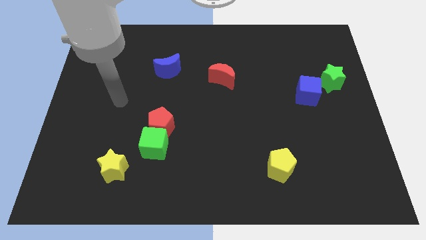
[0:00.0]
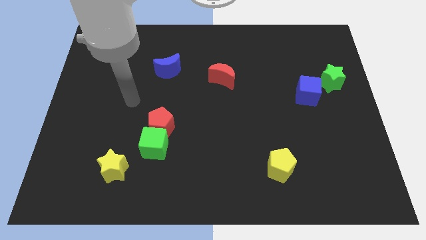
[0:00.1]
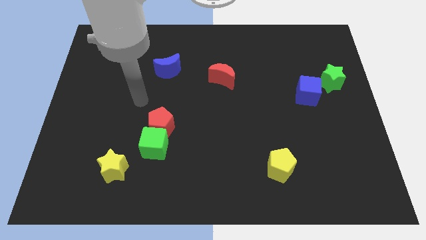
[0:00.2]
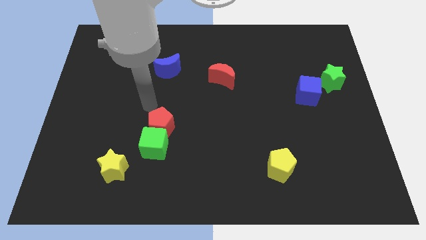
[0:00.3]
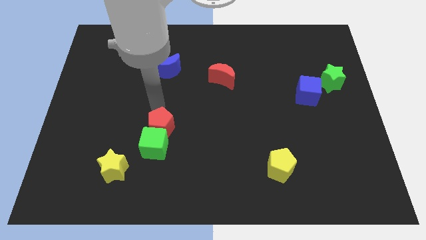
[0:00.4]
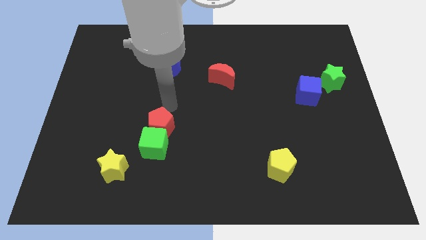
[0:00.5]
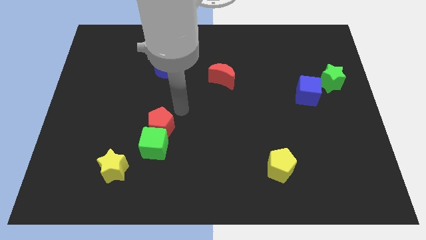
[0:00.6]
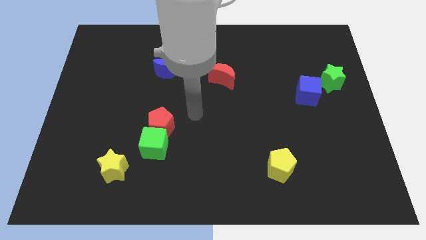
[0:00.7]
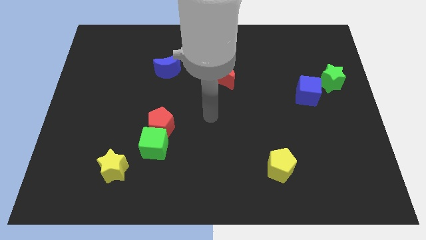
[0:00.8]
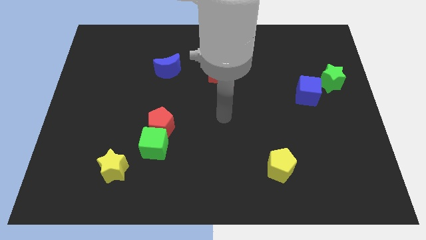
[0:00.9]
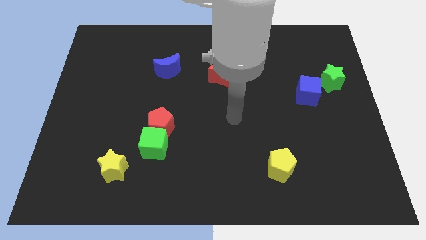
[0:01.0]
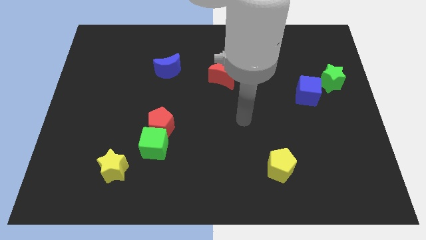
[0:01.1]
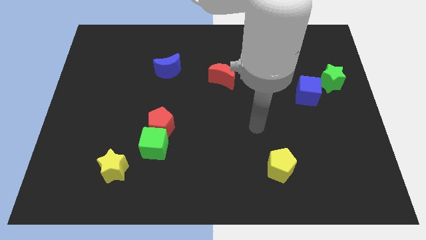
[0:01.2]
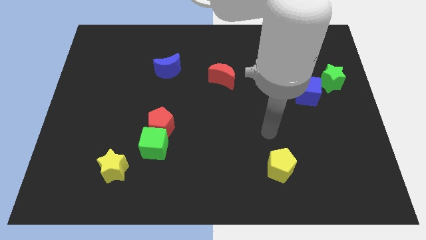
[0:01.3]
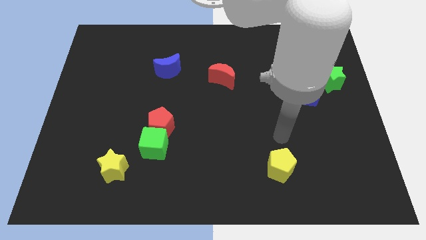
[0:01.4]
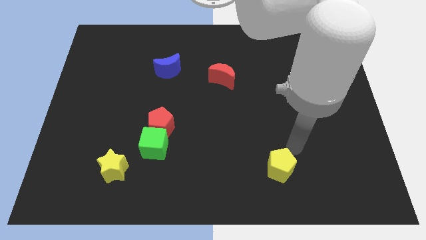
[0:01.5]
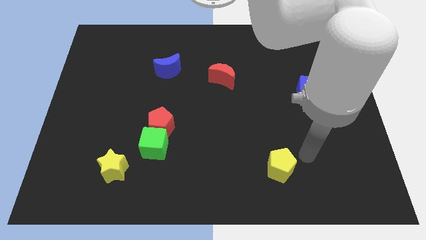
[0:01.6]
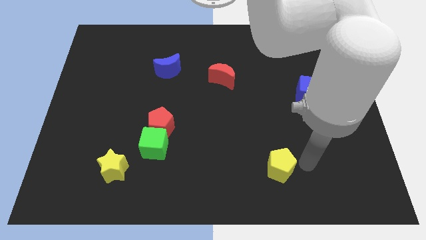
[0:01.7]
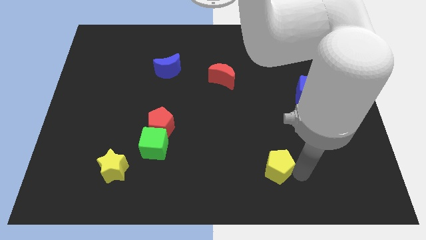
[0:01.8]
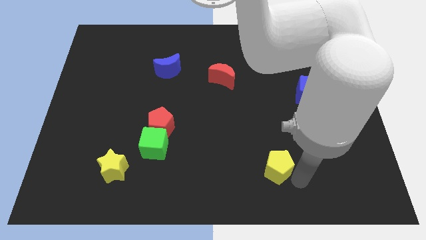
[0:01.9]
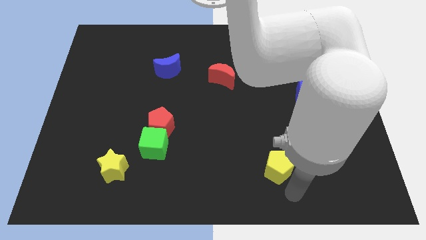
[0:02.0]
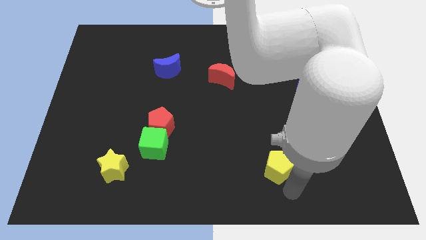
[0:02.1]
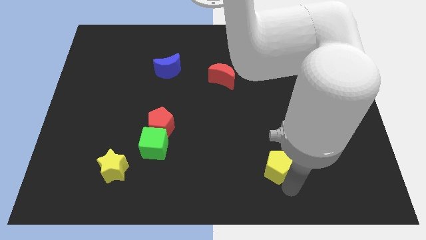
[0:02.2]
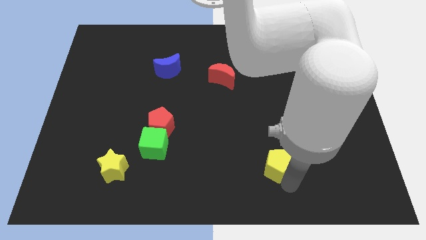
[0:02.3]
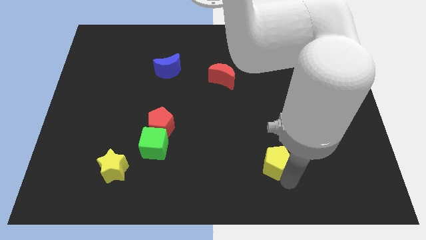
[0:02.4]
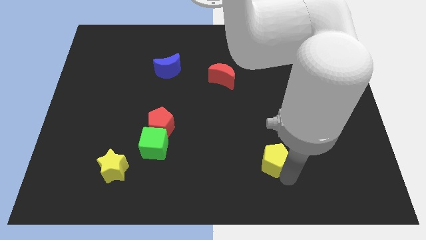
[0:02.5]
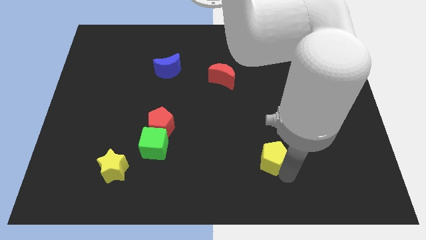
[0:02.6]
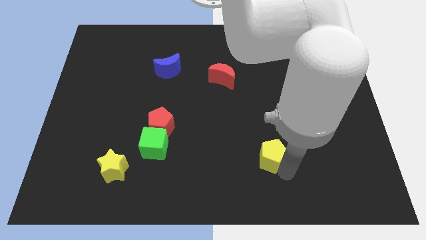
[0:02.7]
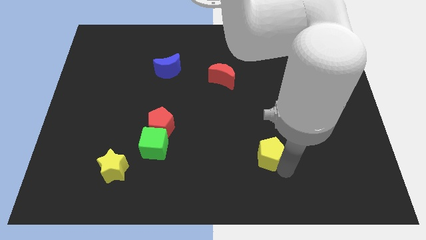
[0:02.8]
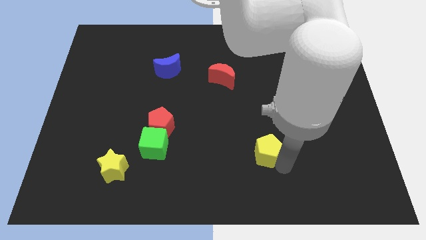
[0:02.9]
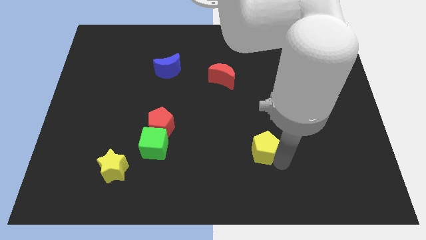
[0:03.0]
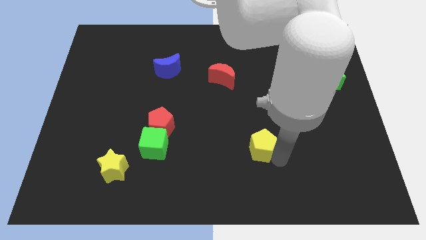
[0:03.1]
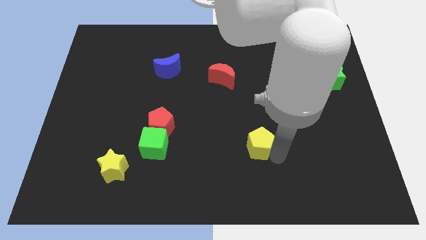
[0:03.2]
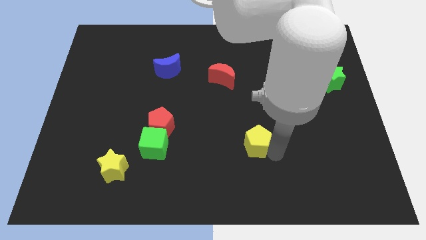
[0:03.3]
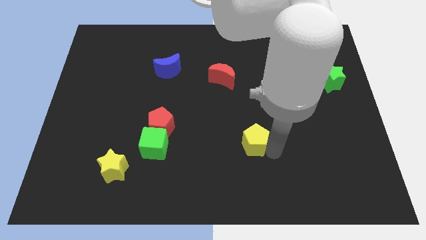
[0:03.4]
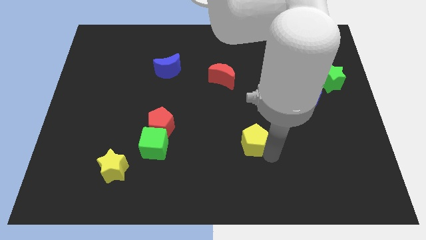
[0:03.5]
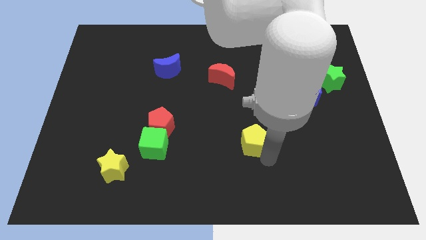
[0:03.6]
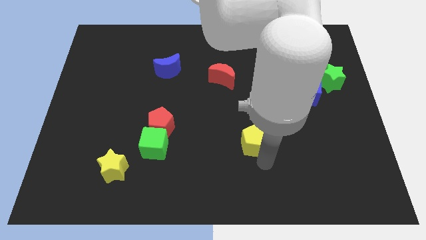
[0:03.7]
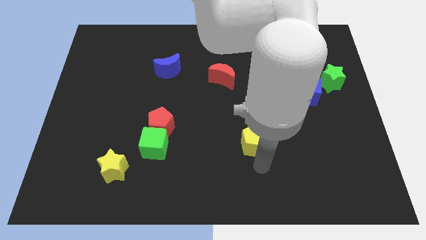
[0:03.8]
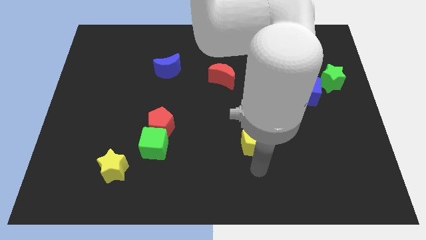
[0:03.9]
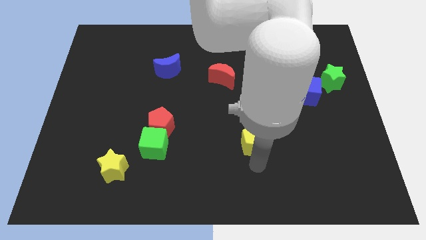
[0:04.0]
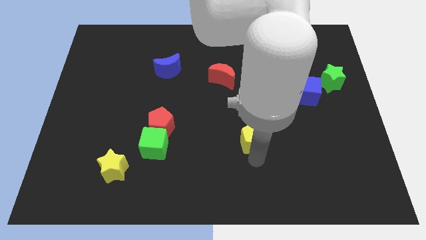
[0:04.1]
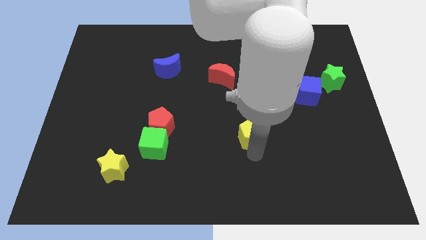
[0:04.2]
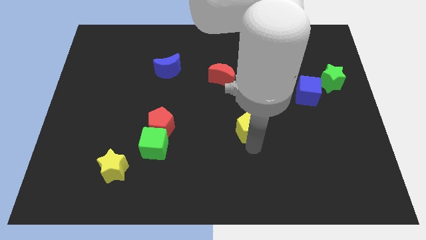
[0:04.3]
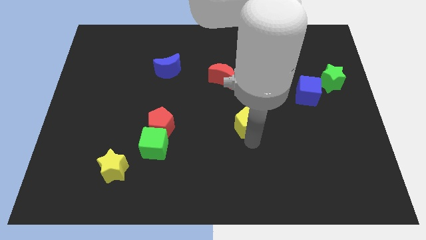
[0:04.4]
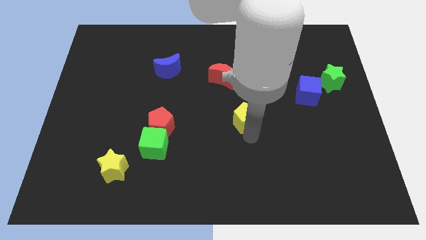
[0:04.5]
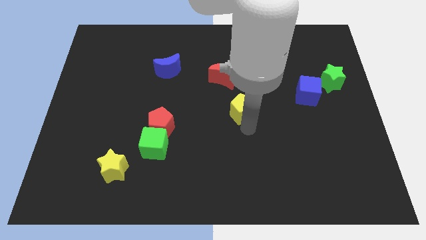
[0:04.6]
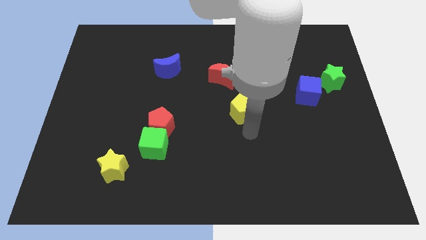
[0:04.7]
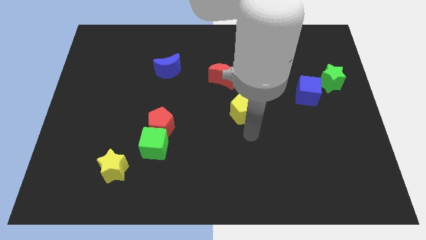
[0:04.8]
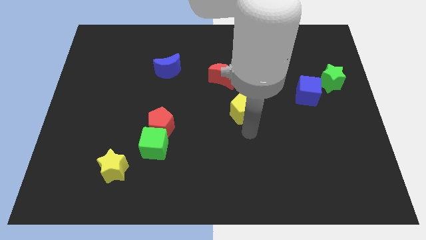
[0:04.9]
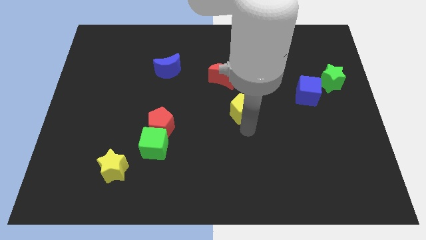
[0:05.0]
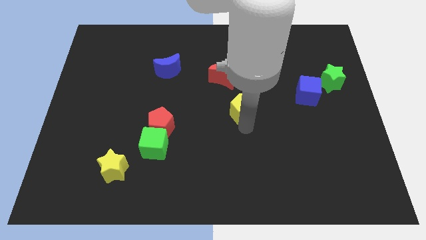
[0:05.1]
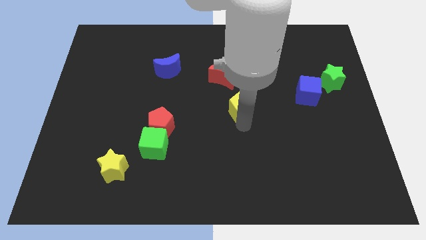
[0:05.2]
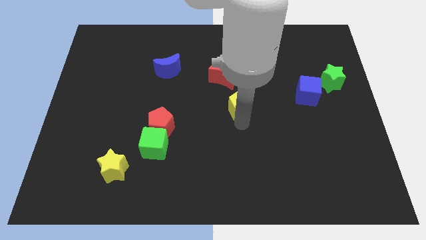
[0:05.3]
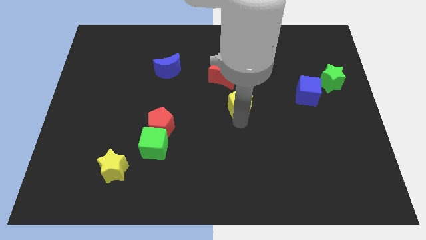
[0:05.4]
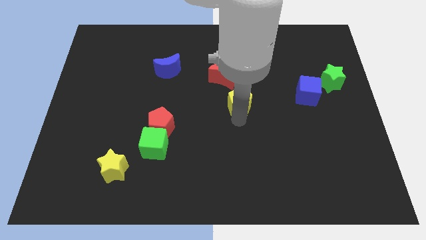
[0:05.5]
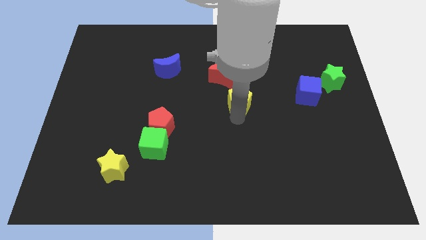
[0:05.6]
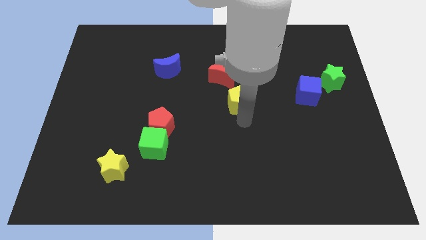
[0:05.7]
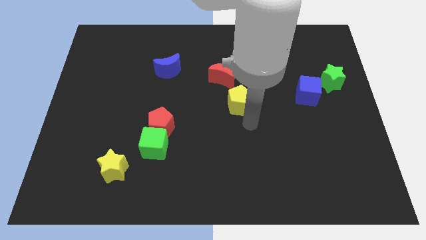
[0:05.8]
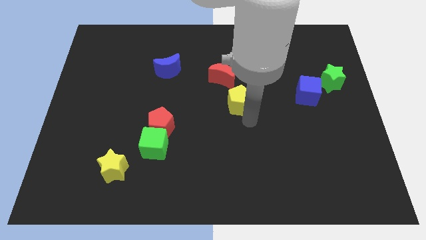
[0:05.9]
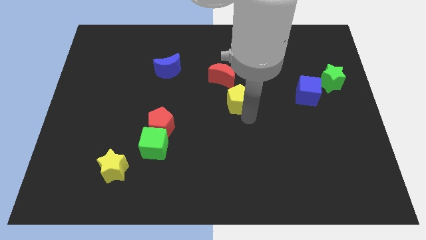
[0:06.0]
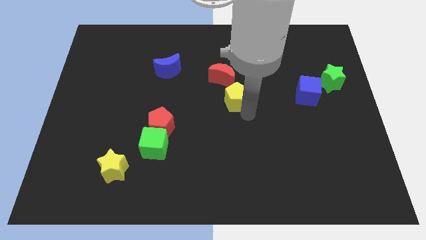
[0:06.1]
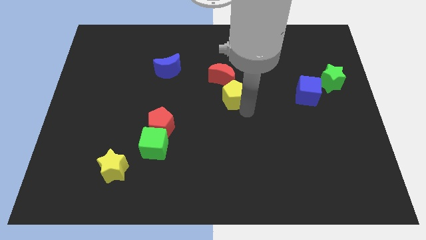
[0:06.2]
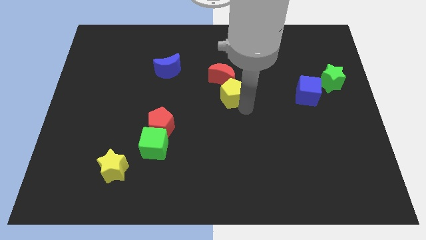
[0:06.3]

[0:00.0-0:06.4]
put the yellow pentagon close to the red moon

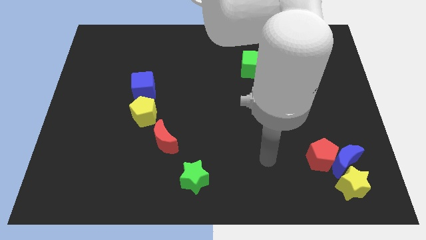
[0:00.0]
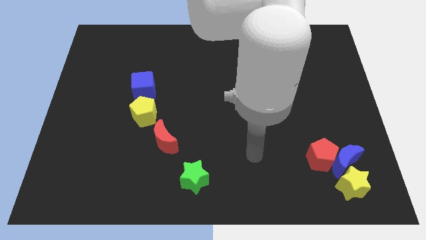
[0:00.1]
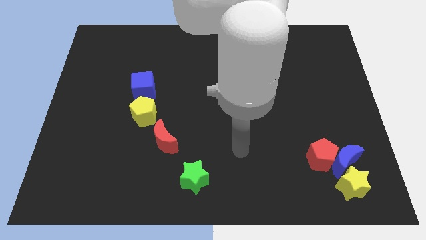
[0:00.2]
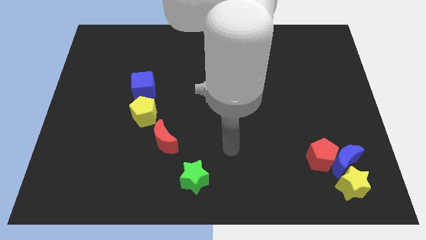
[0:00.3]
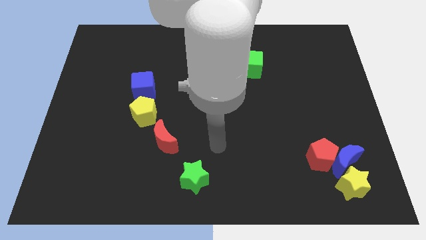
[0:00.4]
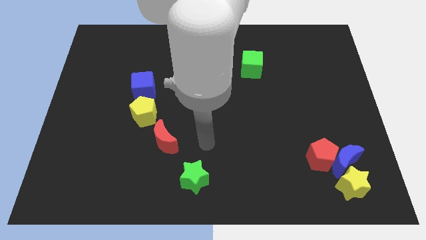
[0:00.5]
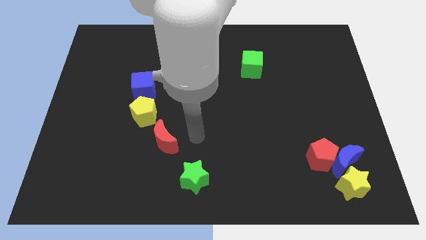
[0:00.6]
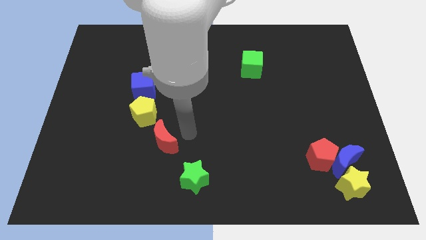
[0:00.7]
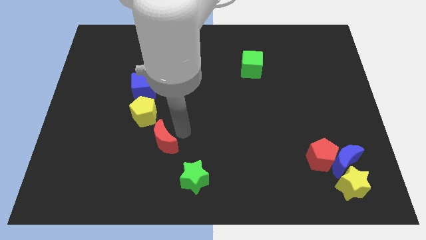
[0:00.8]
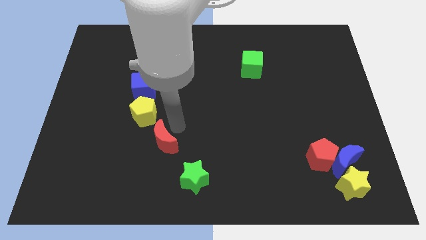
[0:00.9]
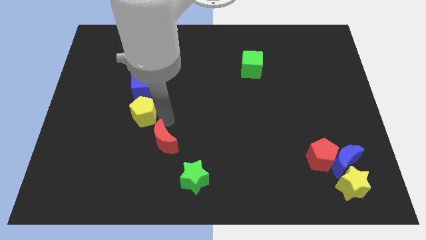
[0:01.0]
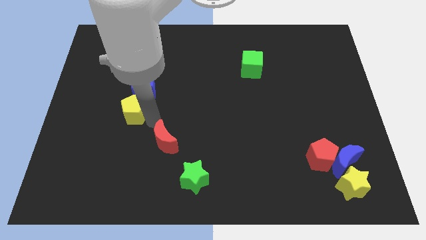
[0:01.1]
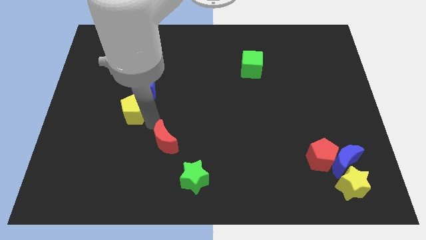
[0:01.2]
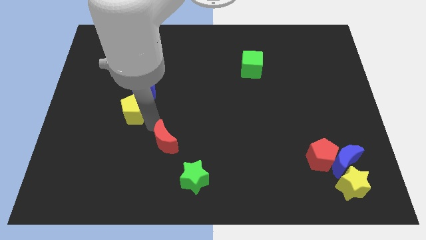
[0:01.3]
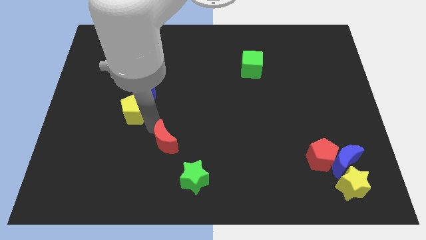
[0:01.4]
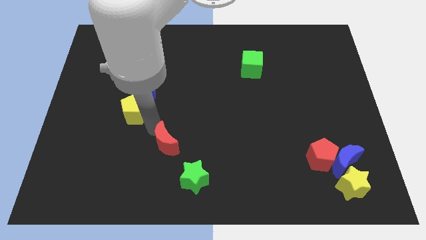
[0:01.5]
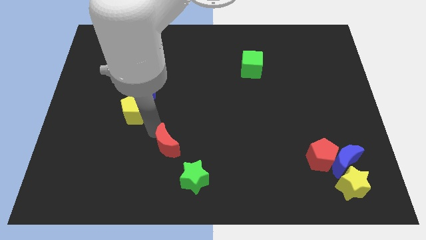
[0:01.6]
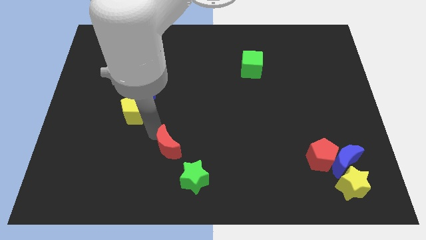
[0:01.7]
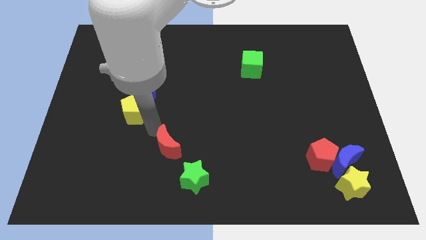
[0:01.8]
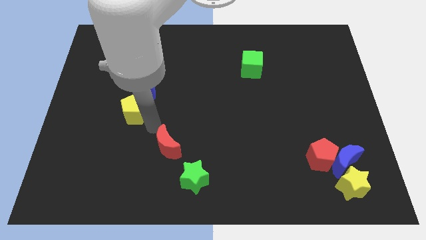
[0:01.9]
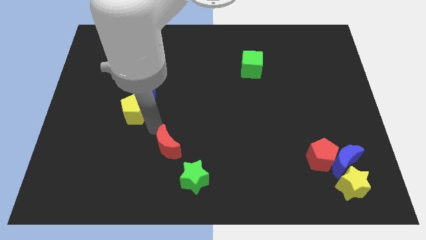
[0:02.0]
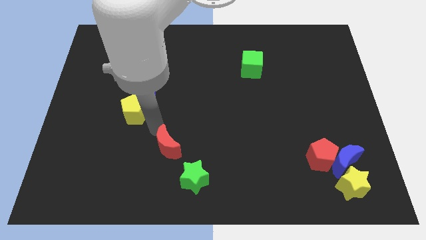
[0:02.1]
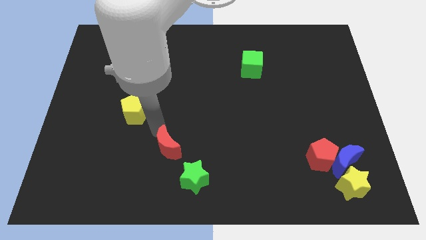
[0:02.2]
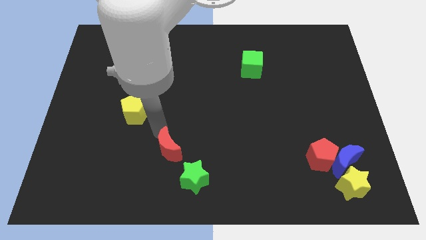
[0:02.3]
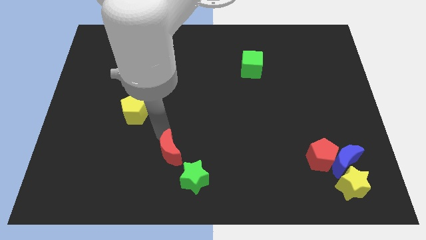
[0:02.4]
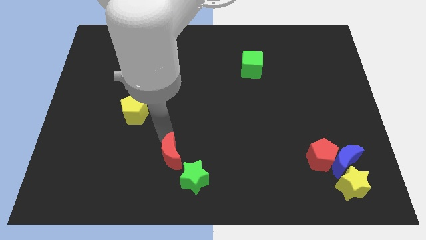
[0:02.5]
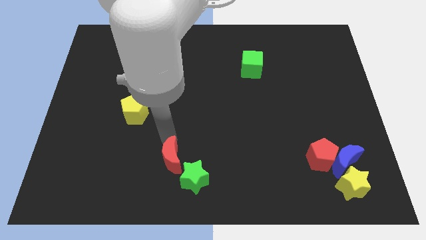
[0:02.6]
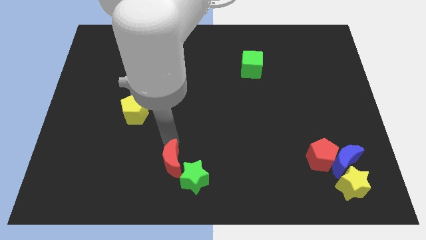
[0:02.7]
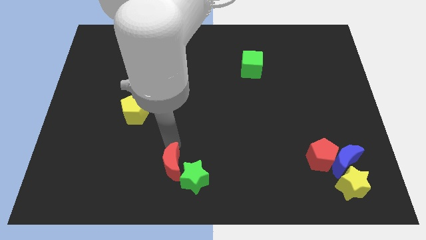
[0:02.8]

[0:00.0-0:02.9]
put the red moon close to the green star
